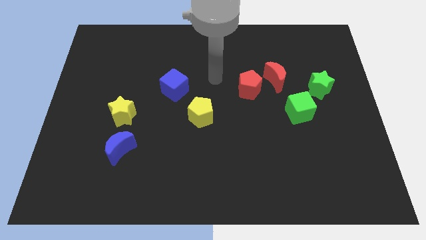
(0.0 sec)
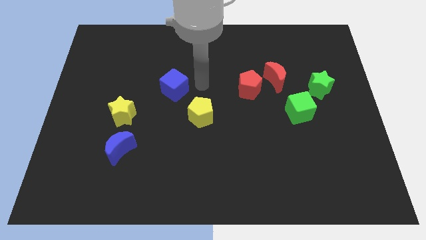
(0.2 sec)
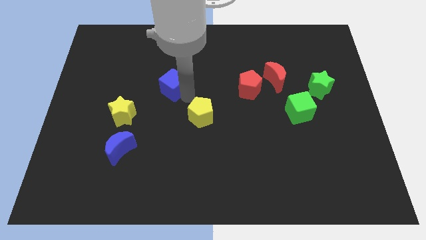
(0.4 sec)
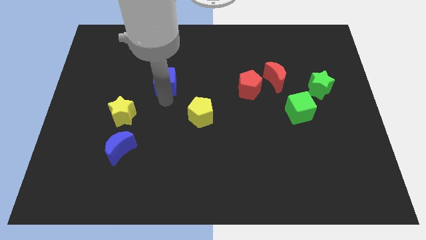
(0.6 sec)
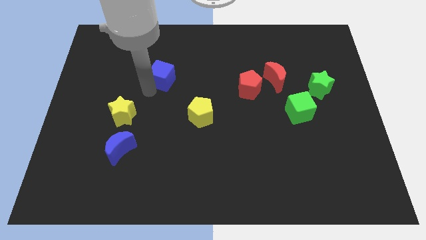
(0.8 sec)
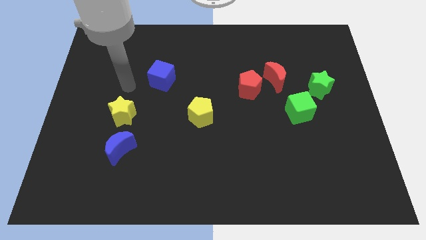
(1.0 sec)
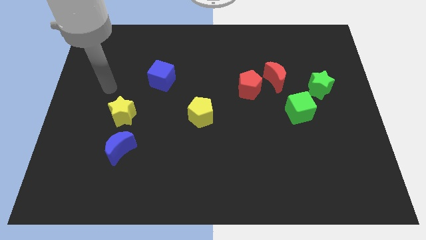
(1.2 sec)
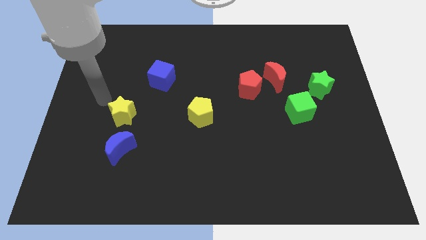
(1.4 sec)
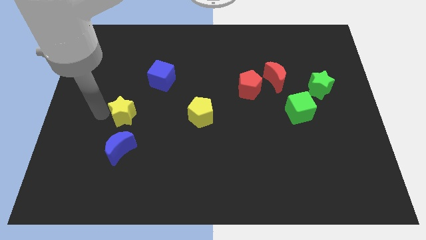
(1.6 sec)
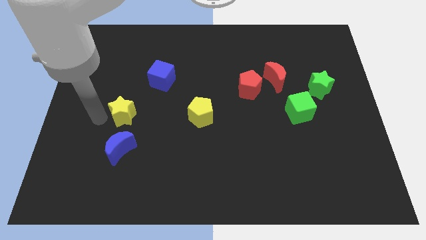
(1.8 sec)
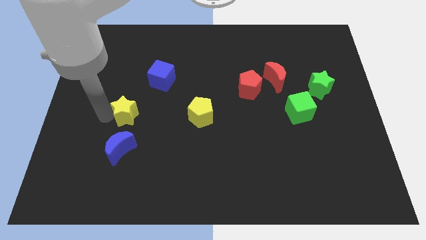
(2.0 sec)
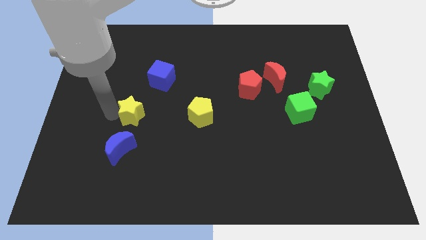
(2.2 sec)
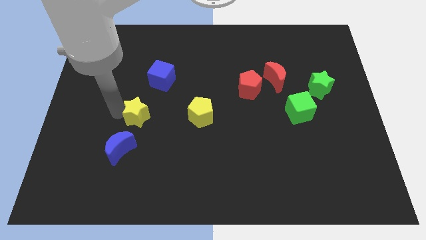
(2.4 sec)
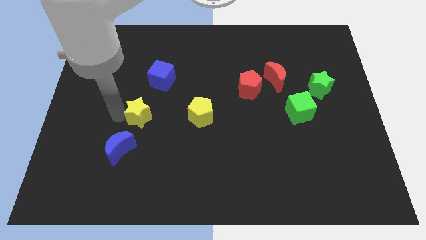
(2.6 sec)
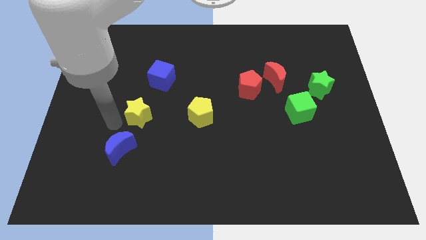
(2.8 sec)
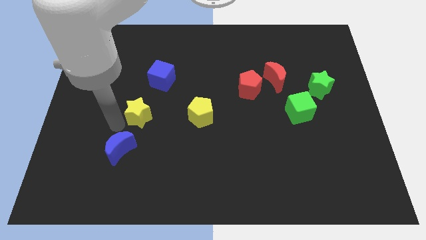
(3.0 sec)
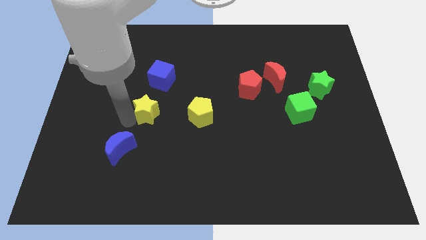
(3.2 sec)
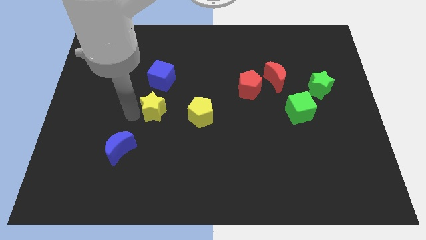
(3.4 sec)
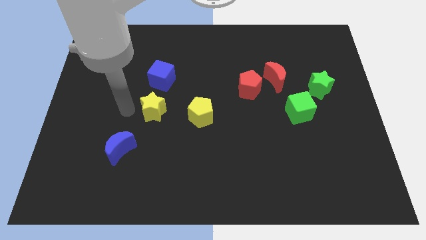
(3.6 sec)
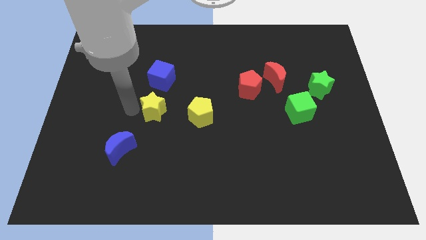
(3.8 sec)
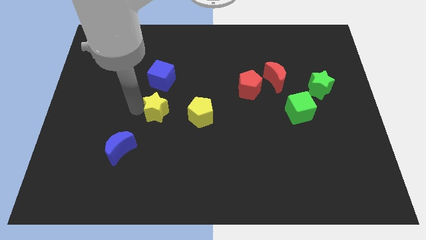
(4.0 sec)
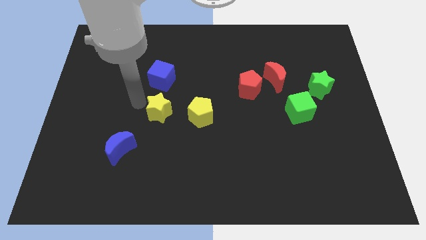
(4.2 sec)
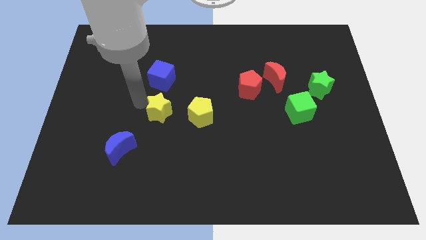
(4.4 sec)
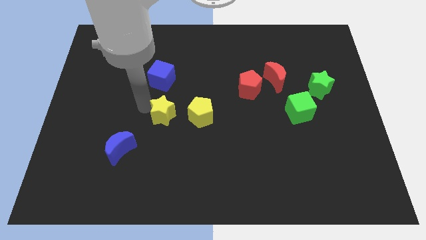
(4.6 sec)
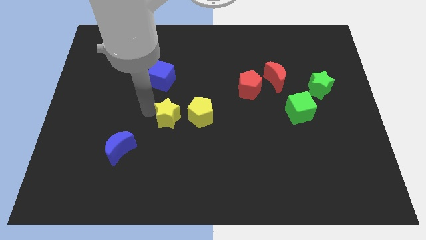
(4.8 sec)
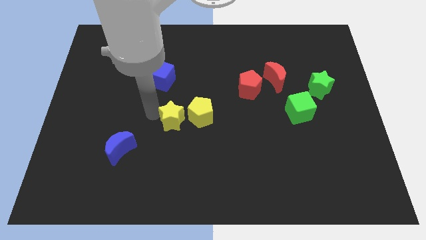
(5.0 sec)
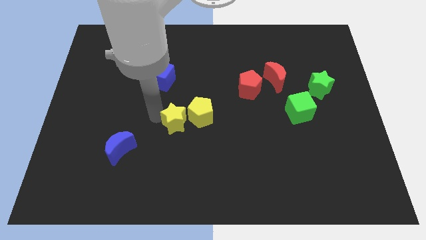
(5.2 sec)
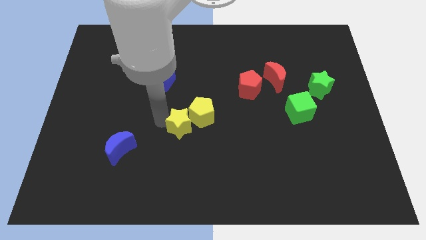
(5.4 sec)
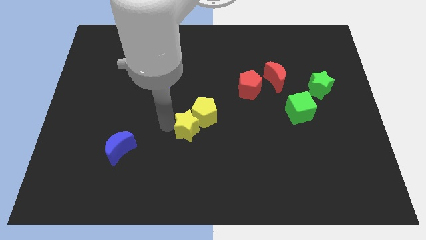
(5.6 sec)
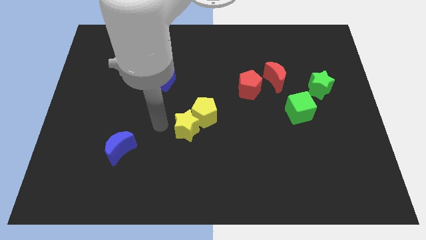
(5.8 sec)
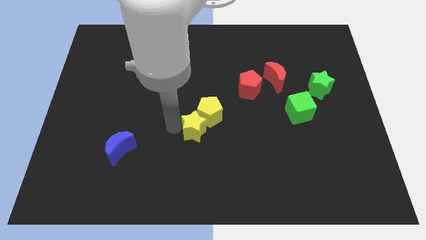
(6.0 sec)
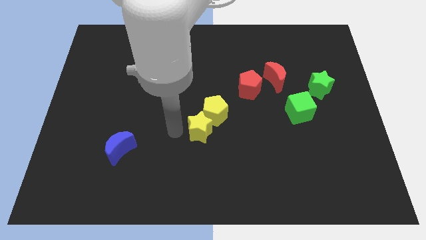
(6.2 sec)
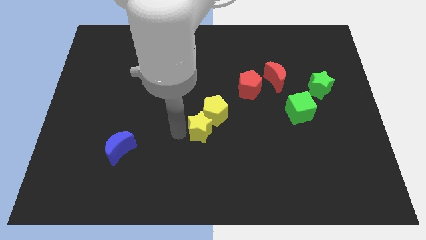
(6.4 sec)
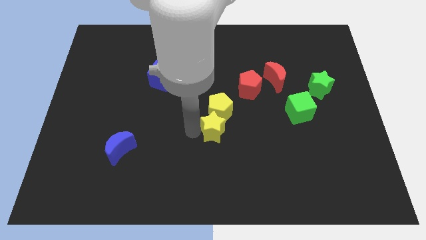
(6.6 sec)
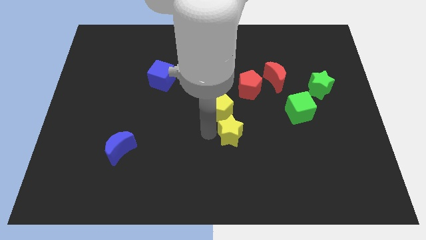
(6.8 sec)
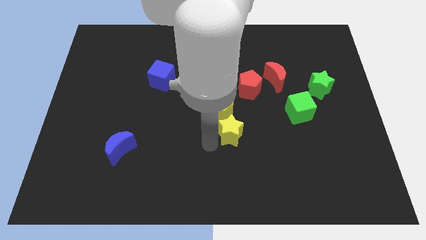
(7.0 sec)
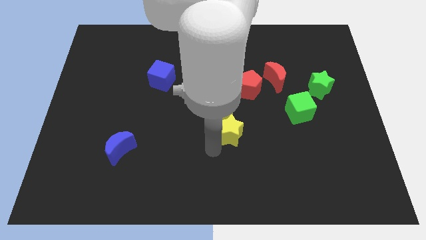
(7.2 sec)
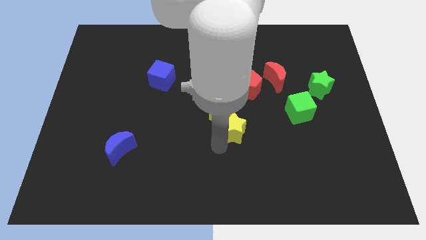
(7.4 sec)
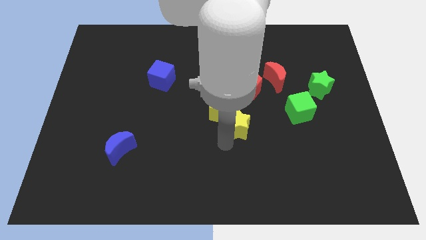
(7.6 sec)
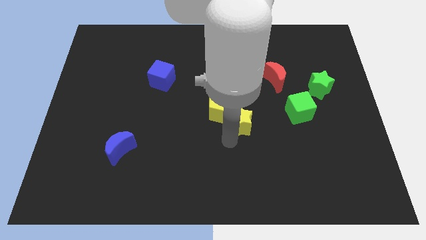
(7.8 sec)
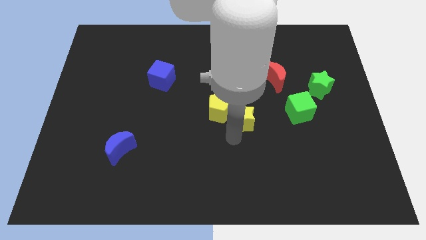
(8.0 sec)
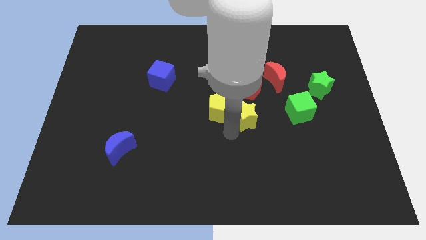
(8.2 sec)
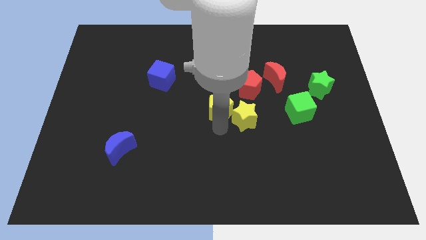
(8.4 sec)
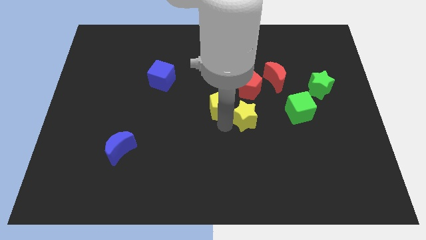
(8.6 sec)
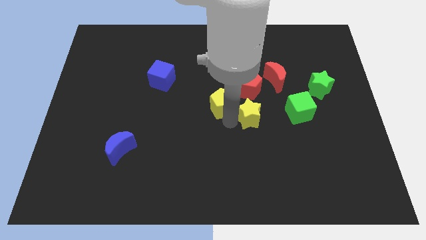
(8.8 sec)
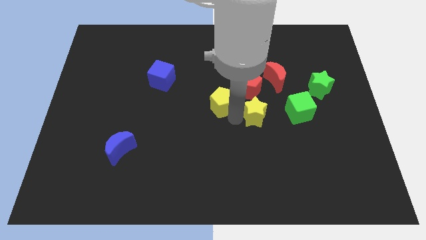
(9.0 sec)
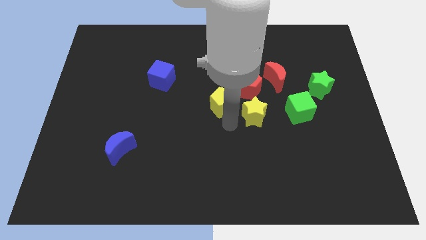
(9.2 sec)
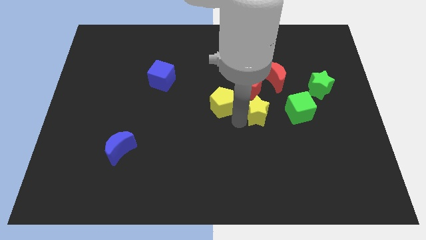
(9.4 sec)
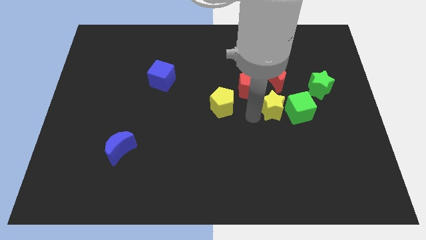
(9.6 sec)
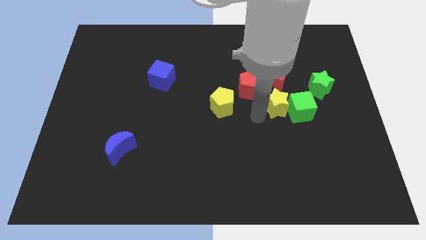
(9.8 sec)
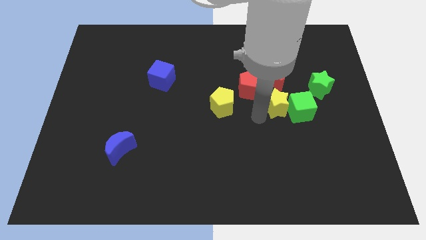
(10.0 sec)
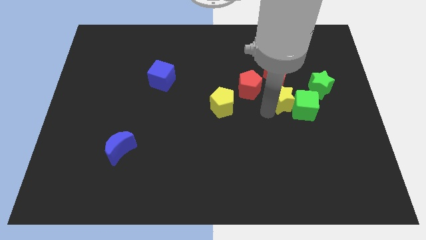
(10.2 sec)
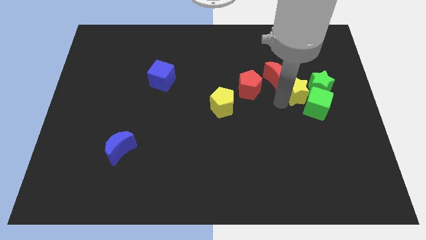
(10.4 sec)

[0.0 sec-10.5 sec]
move the yellow star to the green star

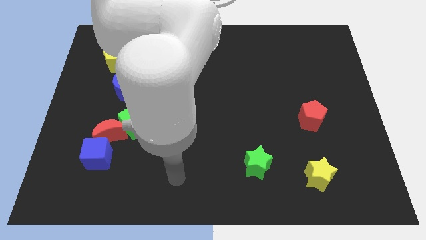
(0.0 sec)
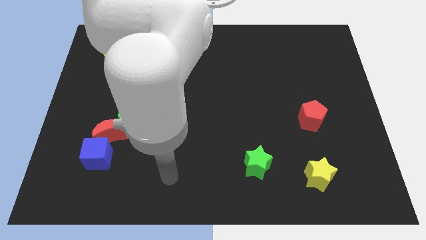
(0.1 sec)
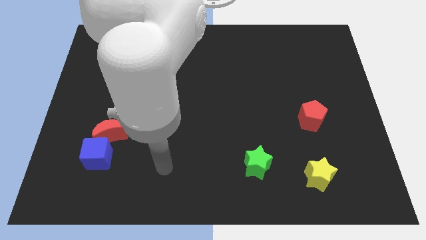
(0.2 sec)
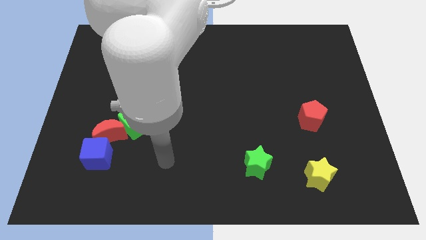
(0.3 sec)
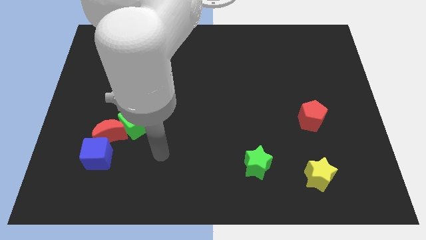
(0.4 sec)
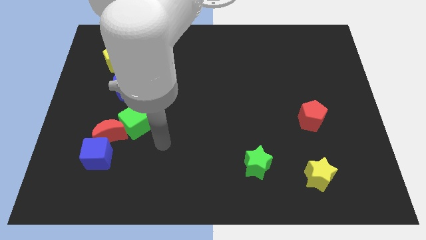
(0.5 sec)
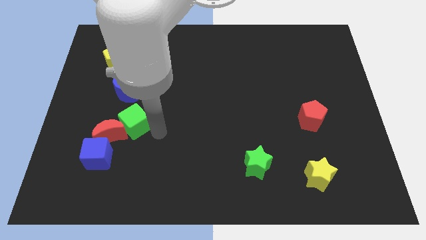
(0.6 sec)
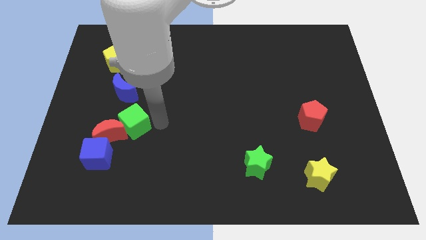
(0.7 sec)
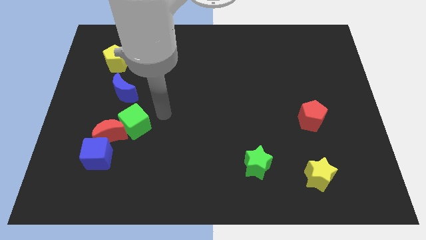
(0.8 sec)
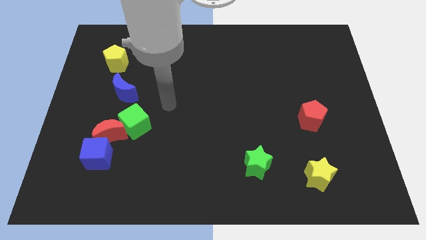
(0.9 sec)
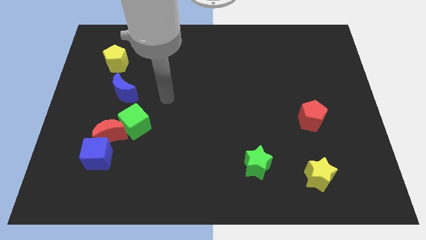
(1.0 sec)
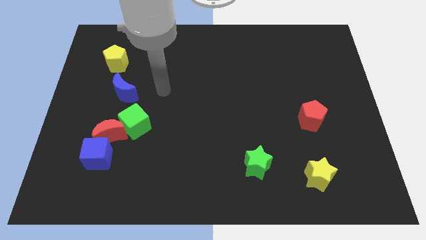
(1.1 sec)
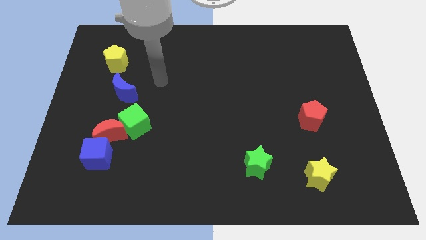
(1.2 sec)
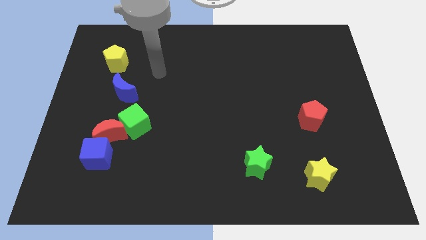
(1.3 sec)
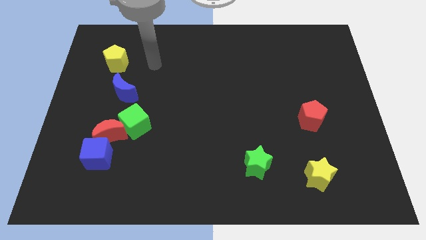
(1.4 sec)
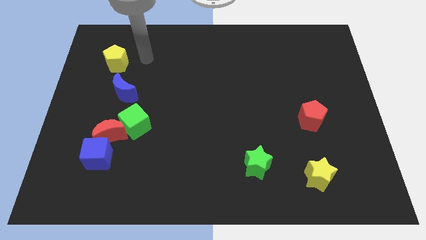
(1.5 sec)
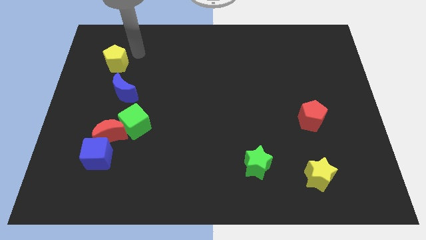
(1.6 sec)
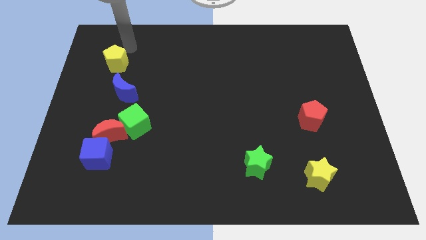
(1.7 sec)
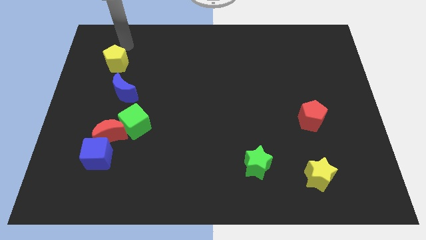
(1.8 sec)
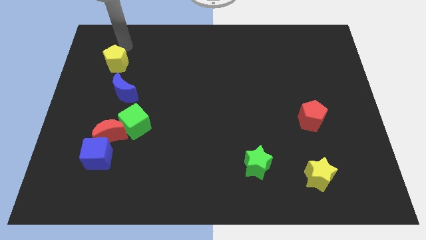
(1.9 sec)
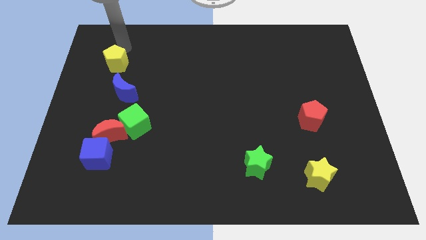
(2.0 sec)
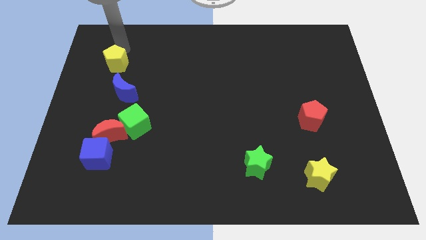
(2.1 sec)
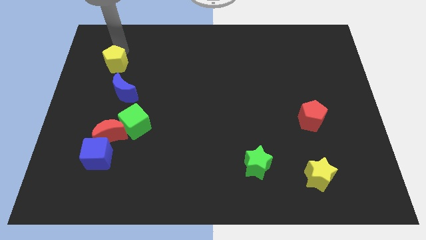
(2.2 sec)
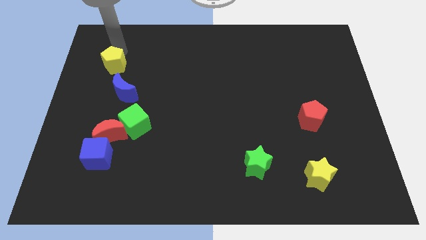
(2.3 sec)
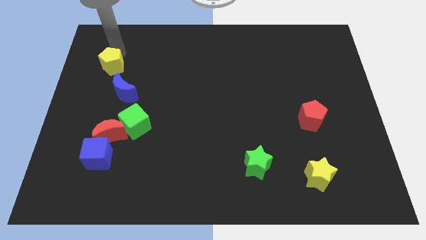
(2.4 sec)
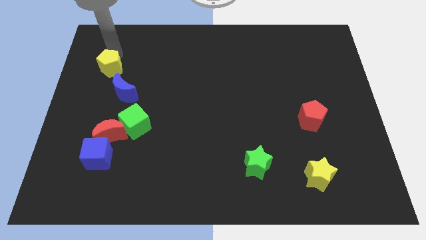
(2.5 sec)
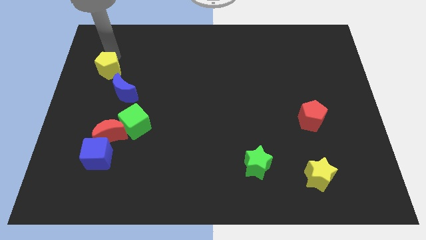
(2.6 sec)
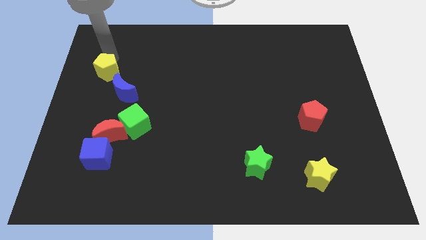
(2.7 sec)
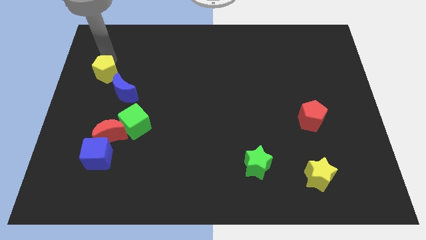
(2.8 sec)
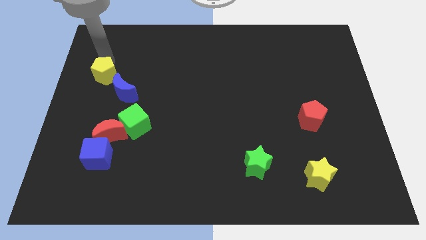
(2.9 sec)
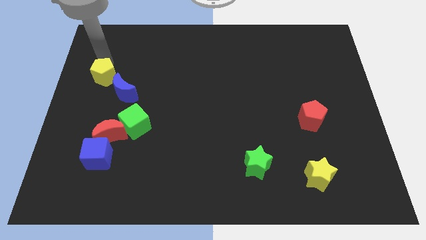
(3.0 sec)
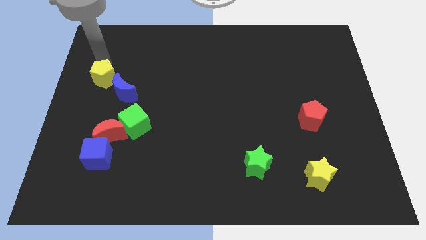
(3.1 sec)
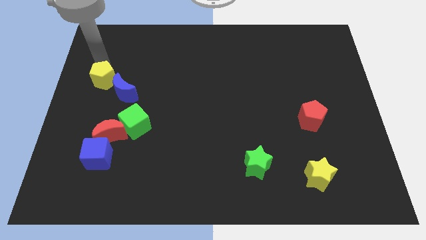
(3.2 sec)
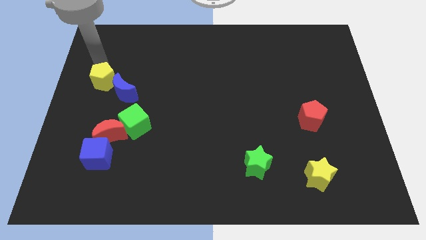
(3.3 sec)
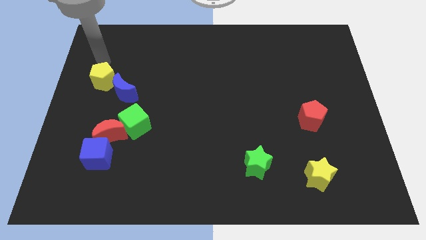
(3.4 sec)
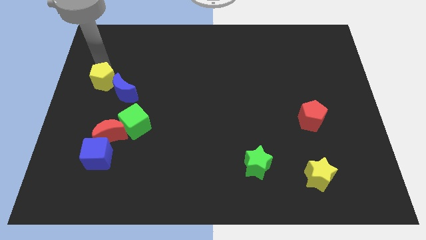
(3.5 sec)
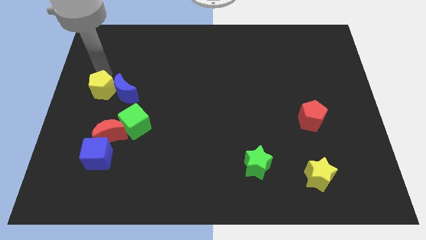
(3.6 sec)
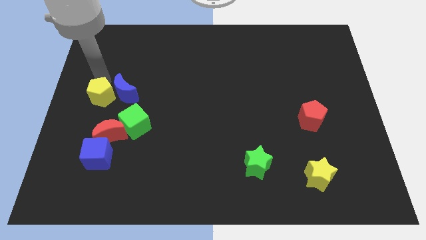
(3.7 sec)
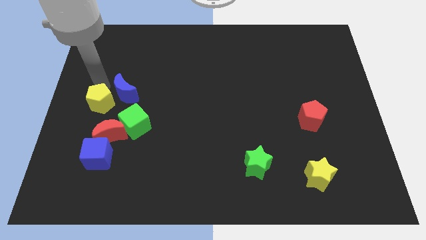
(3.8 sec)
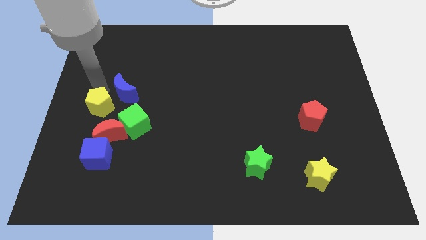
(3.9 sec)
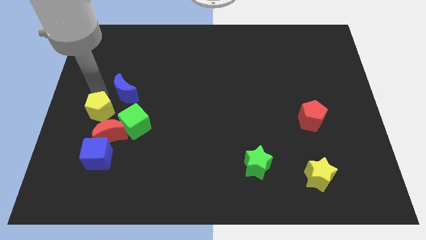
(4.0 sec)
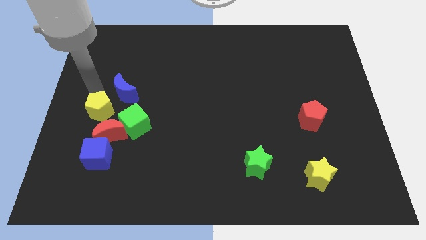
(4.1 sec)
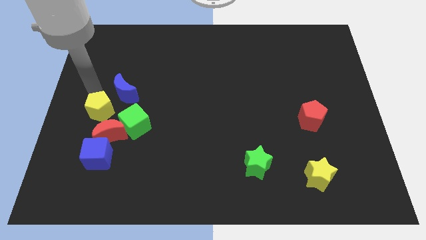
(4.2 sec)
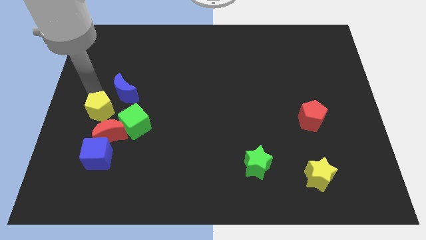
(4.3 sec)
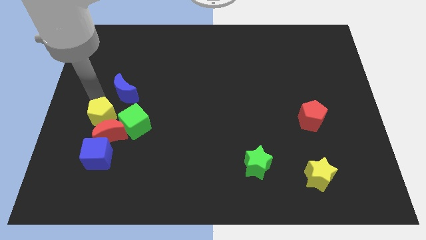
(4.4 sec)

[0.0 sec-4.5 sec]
slide the yellow pentagon to the red moon
